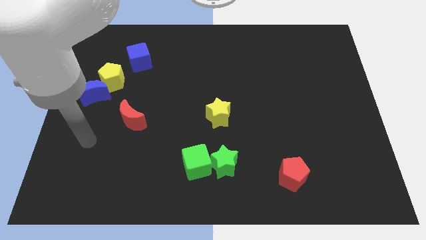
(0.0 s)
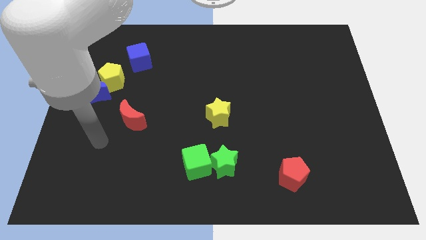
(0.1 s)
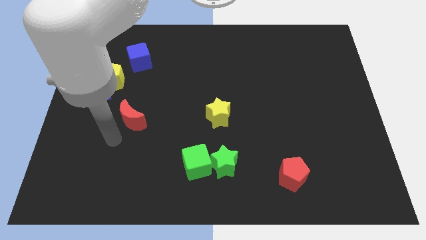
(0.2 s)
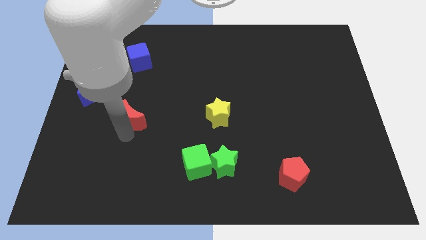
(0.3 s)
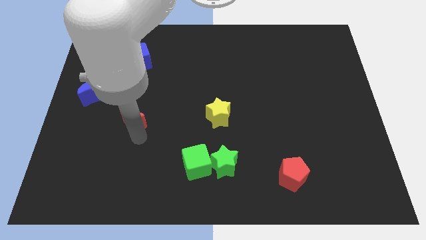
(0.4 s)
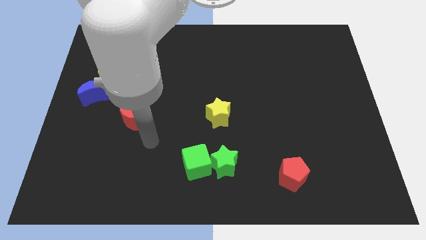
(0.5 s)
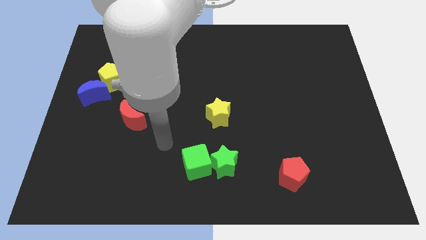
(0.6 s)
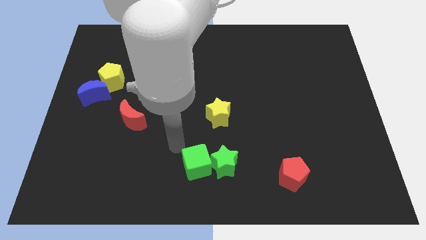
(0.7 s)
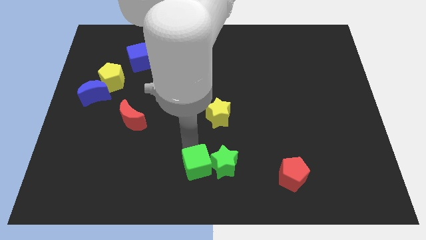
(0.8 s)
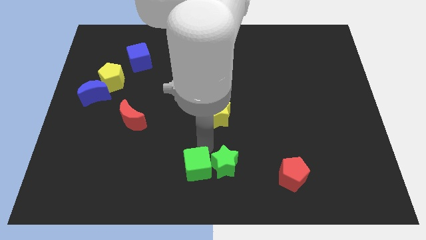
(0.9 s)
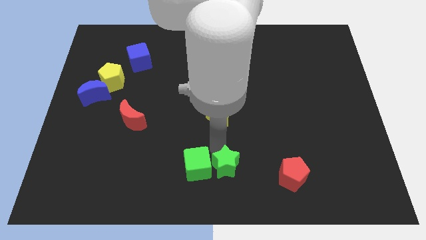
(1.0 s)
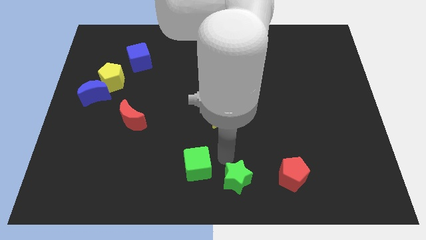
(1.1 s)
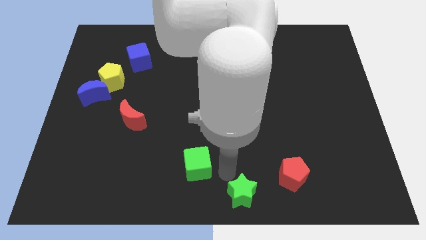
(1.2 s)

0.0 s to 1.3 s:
pull the green cube apart from the green star

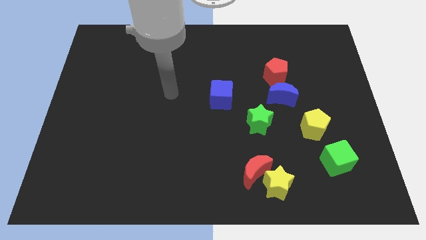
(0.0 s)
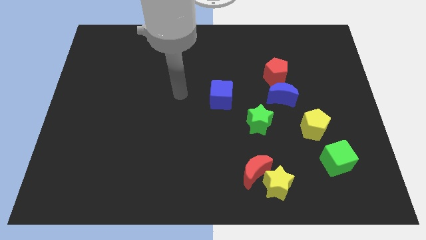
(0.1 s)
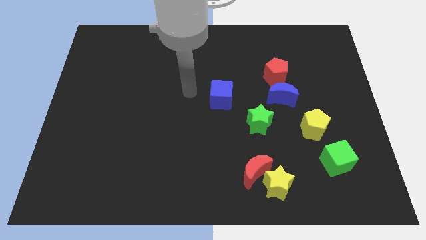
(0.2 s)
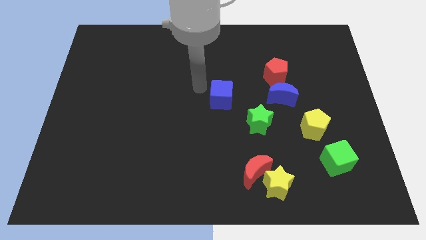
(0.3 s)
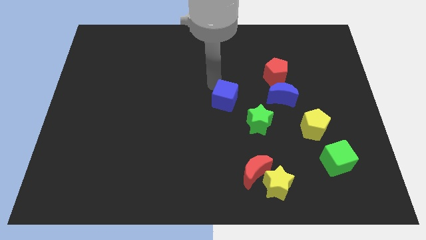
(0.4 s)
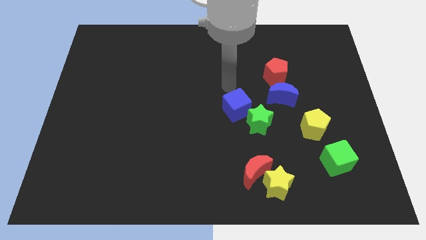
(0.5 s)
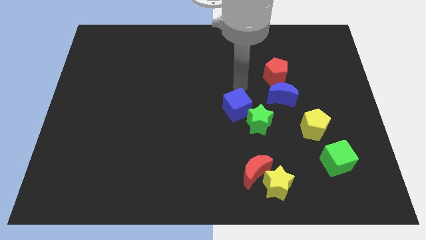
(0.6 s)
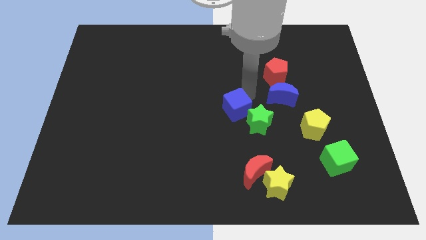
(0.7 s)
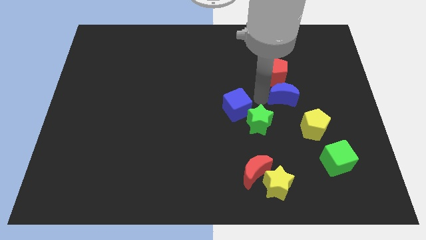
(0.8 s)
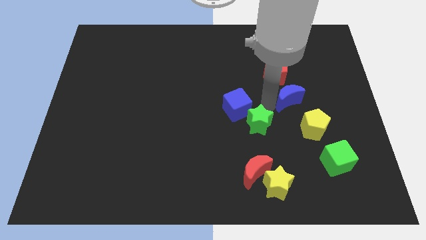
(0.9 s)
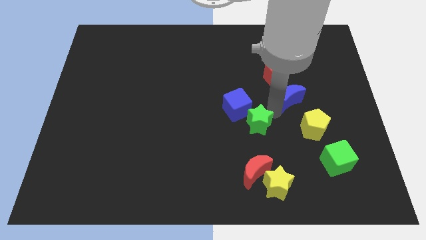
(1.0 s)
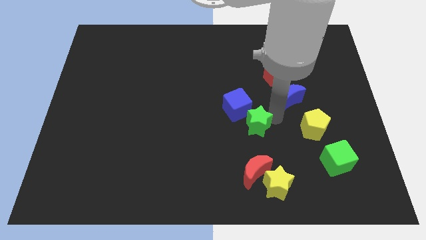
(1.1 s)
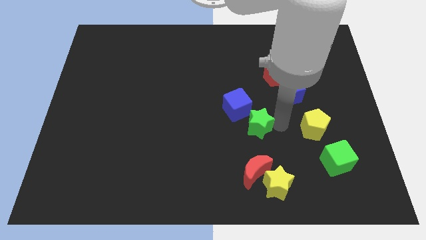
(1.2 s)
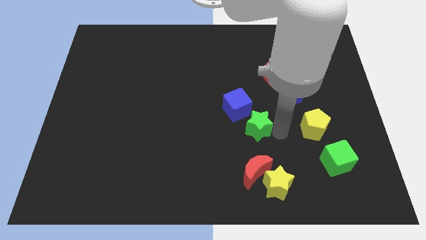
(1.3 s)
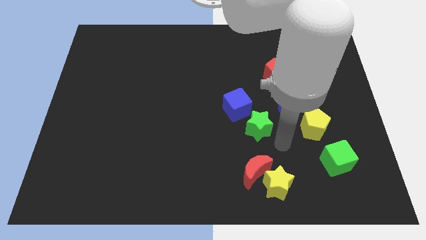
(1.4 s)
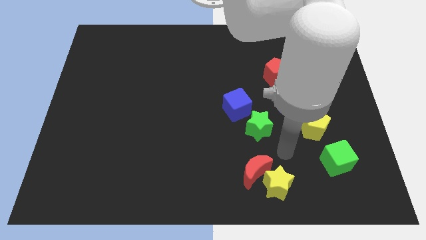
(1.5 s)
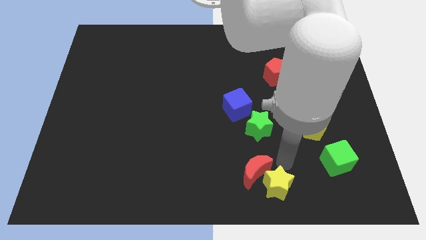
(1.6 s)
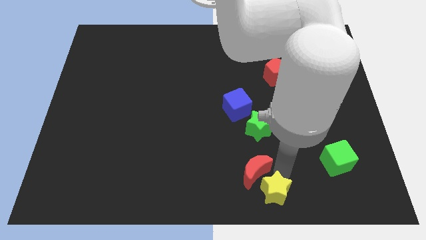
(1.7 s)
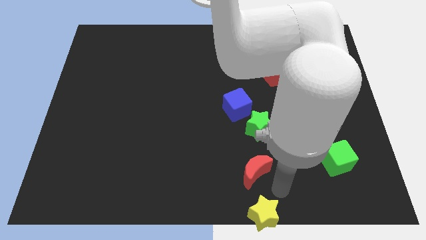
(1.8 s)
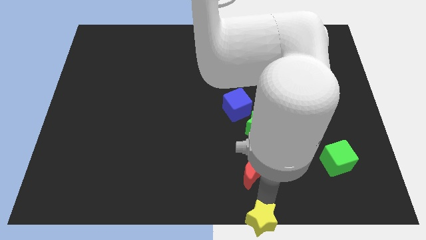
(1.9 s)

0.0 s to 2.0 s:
move the red moon away from the yellow star

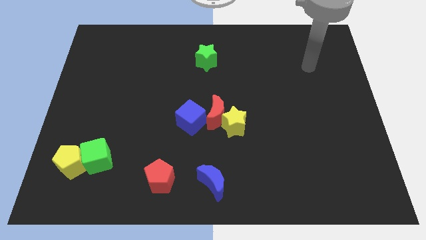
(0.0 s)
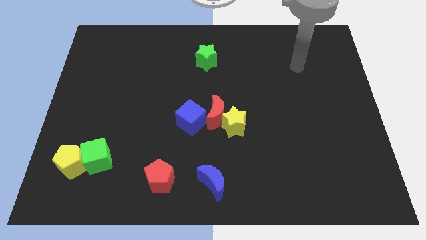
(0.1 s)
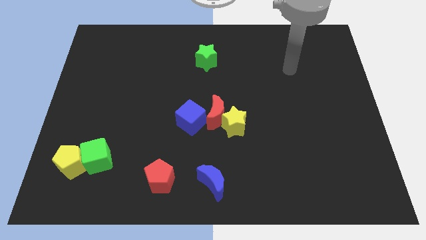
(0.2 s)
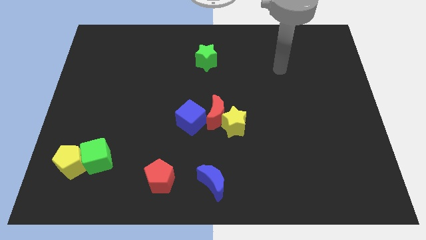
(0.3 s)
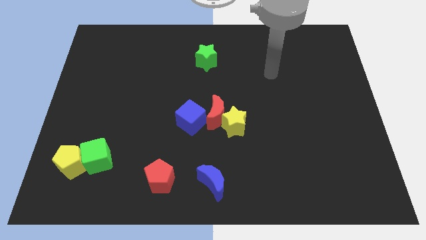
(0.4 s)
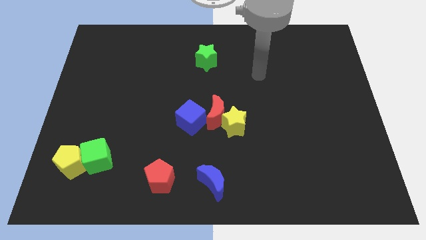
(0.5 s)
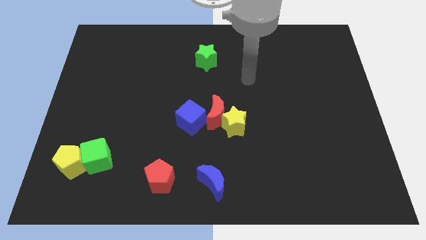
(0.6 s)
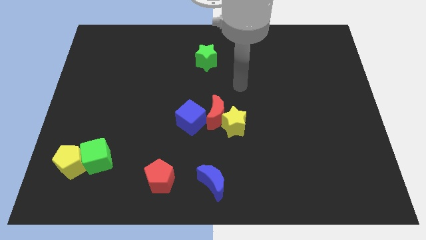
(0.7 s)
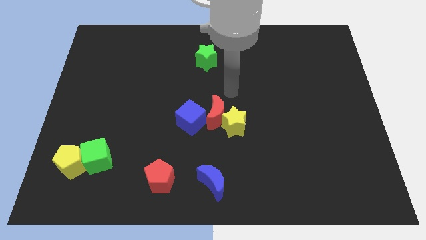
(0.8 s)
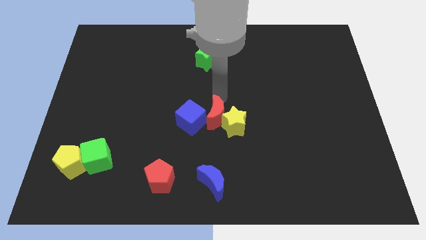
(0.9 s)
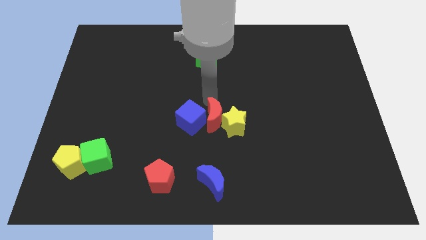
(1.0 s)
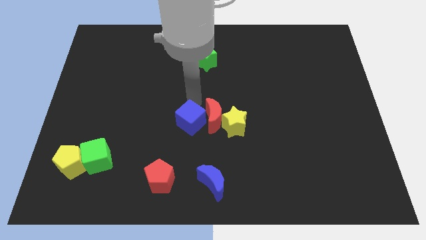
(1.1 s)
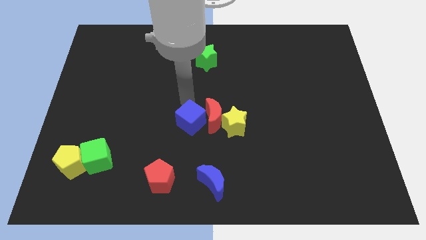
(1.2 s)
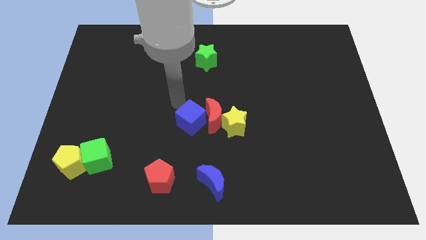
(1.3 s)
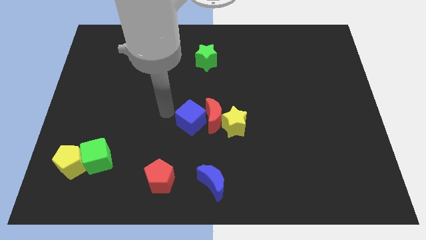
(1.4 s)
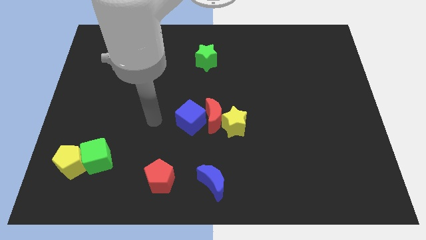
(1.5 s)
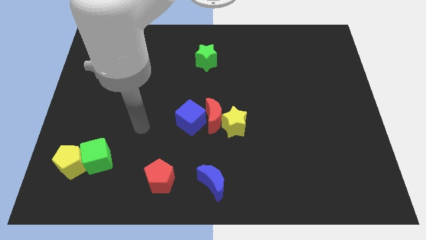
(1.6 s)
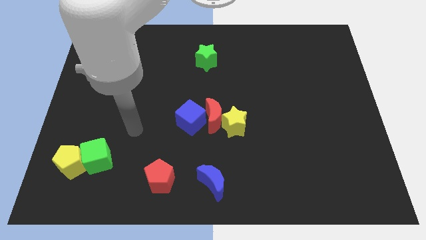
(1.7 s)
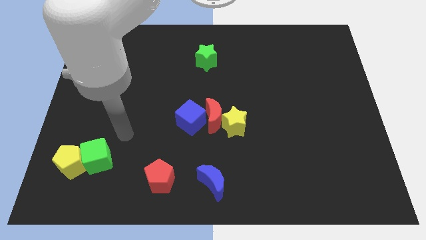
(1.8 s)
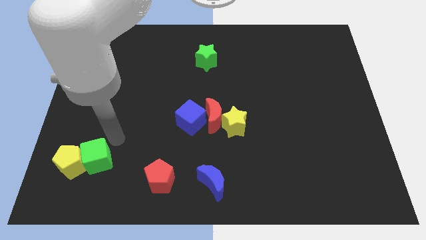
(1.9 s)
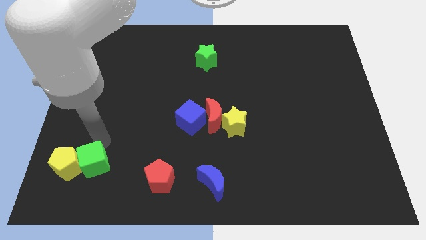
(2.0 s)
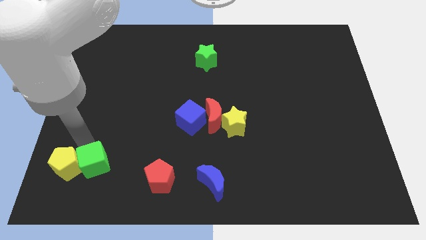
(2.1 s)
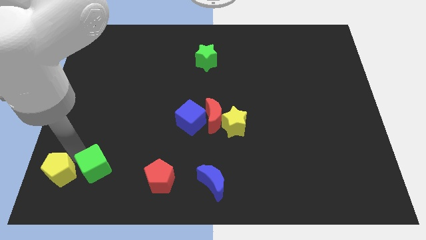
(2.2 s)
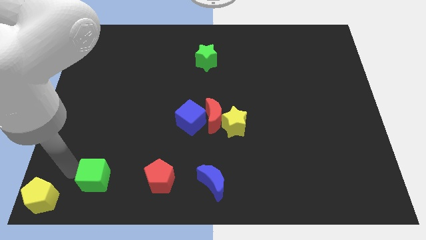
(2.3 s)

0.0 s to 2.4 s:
separate the green cube from the yellow pentagon

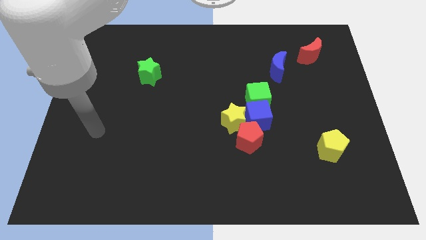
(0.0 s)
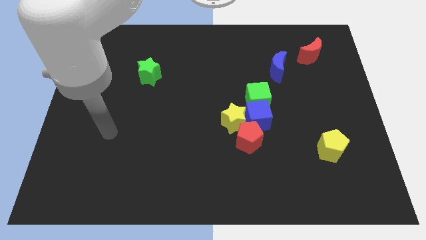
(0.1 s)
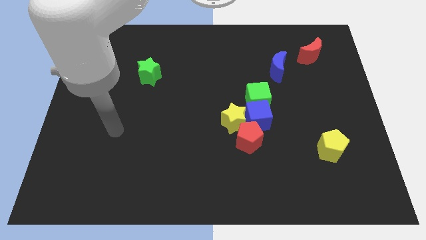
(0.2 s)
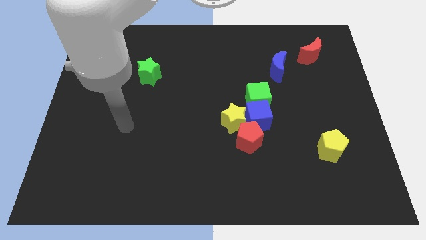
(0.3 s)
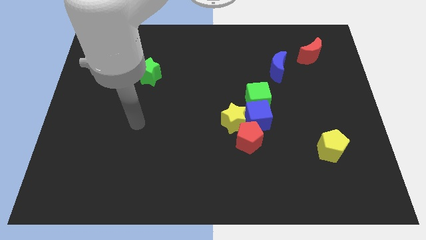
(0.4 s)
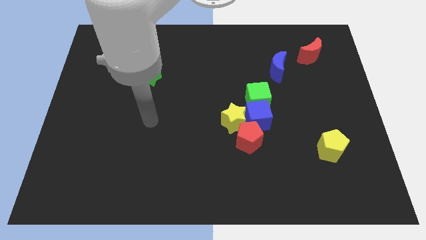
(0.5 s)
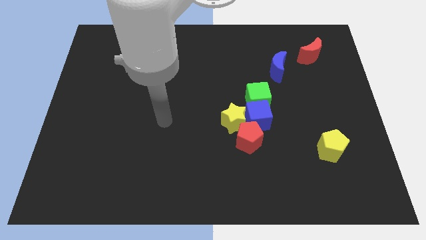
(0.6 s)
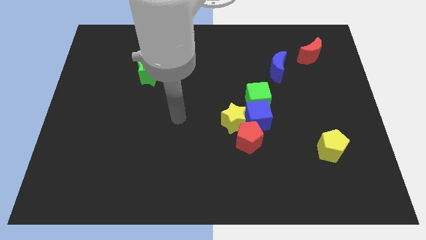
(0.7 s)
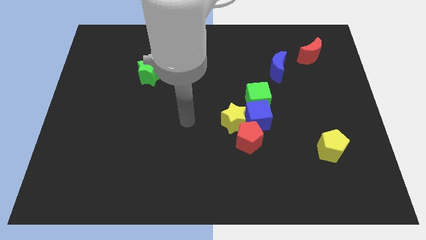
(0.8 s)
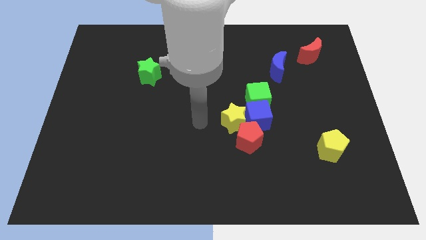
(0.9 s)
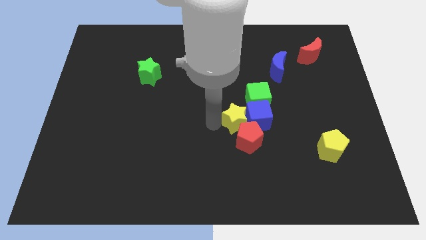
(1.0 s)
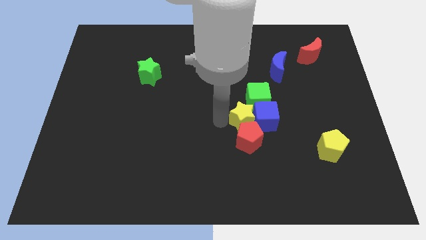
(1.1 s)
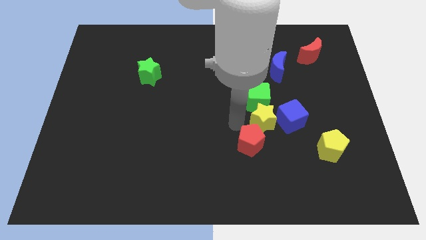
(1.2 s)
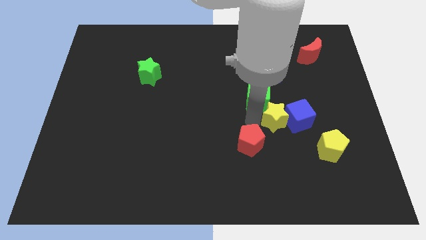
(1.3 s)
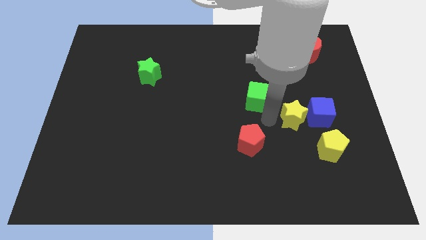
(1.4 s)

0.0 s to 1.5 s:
move the blue cube away from the clump

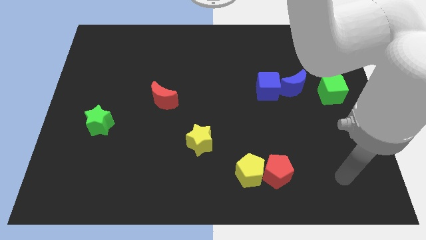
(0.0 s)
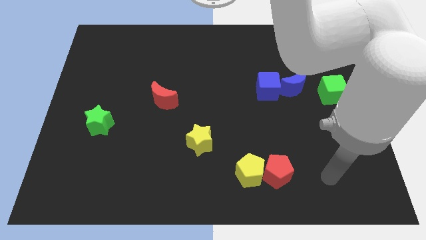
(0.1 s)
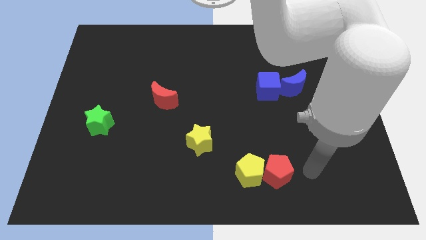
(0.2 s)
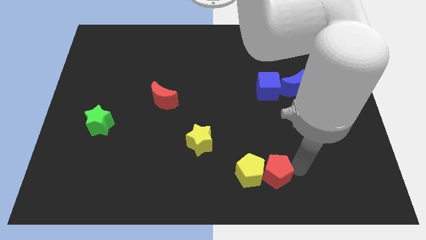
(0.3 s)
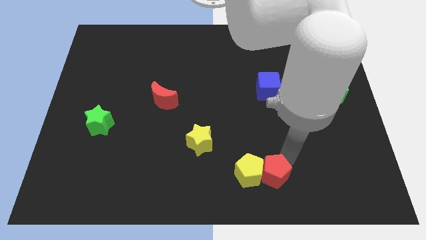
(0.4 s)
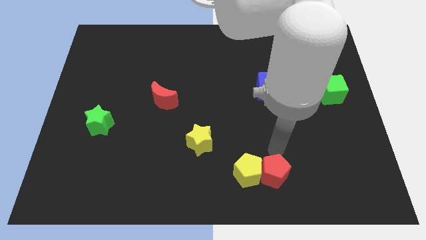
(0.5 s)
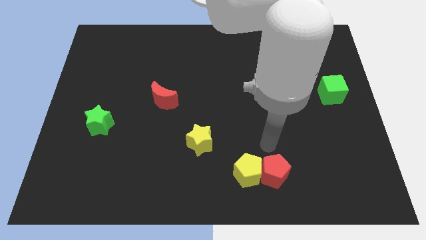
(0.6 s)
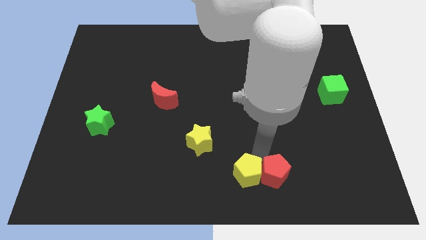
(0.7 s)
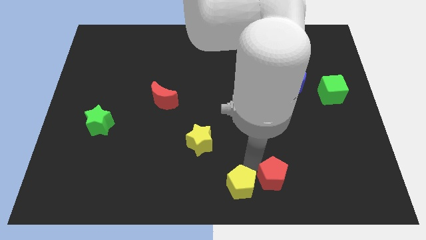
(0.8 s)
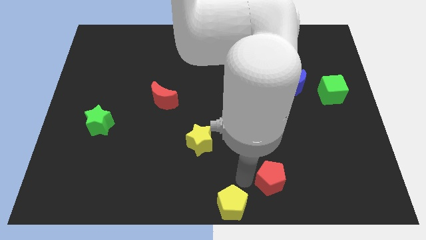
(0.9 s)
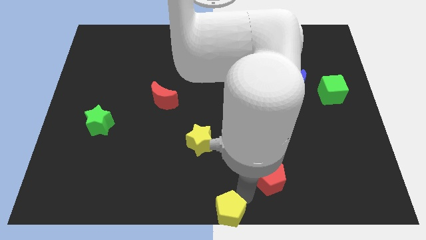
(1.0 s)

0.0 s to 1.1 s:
separate the red pentagon from the yellow pentagon

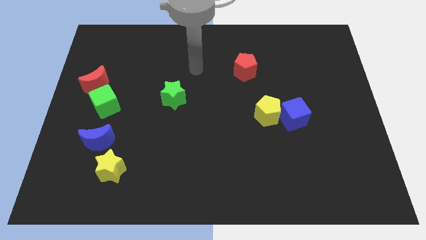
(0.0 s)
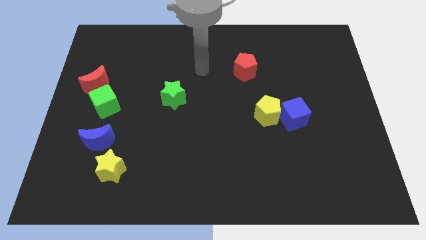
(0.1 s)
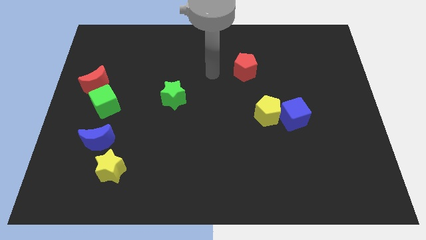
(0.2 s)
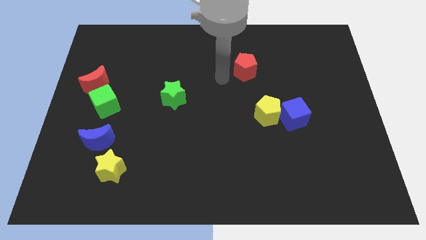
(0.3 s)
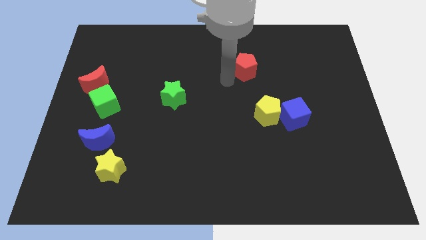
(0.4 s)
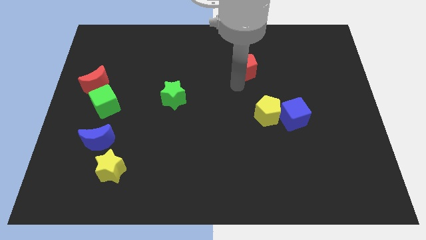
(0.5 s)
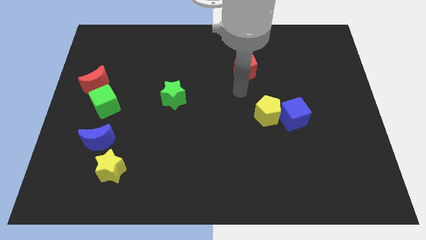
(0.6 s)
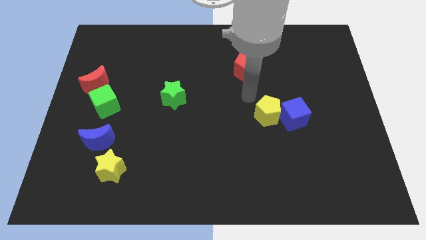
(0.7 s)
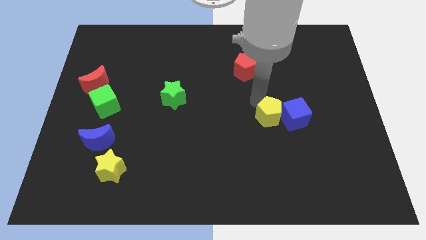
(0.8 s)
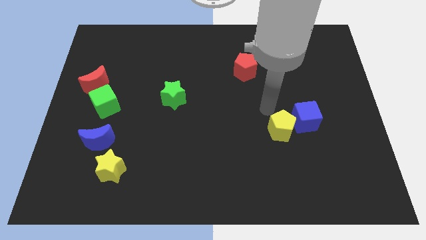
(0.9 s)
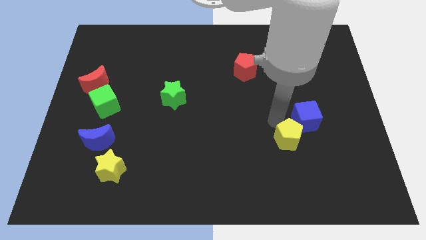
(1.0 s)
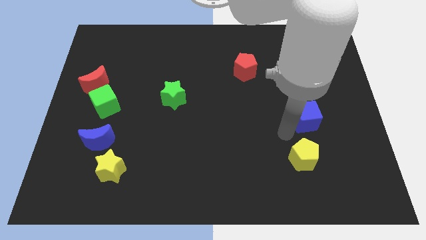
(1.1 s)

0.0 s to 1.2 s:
separate the blue cube from the yellow pentagon
